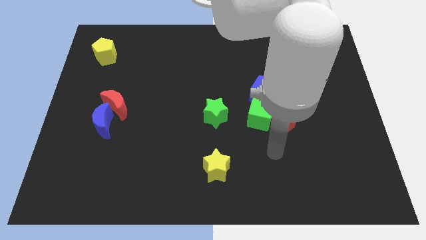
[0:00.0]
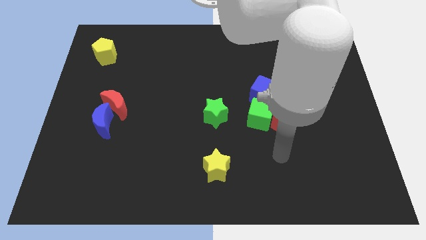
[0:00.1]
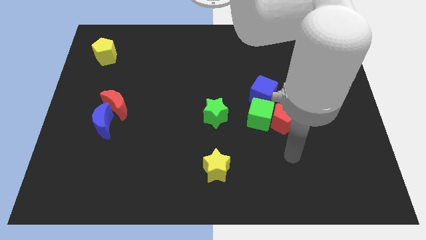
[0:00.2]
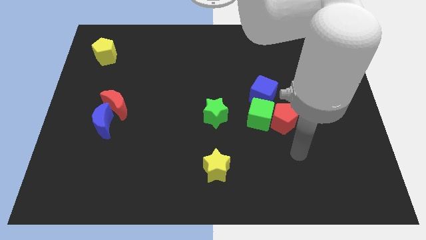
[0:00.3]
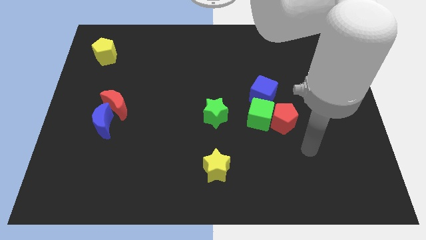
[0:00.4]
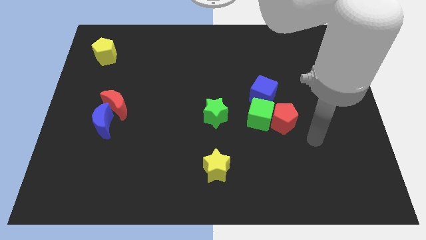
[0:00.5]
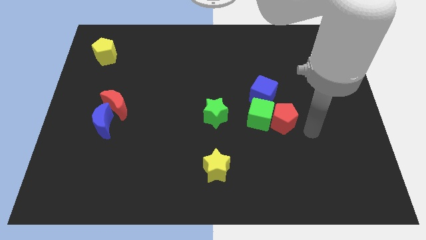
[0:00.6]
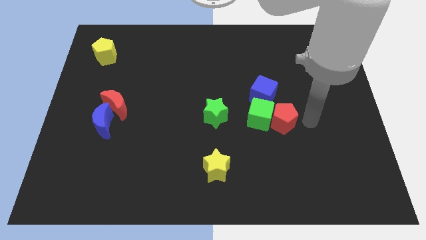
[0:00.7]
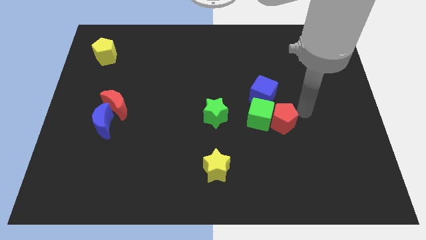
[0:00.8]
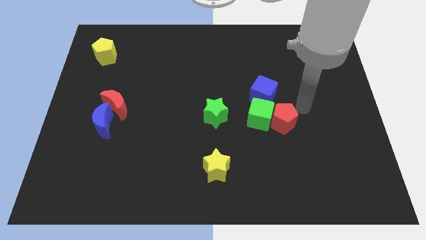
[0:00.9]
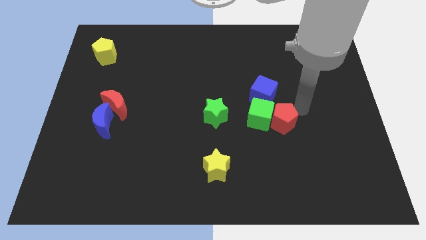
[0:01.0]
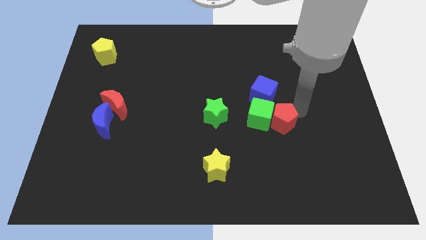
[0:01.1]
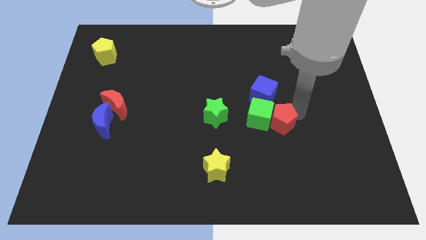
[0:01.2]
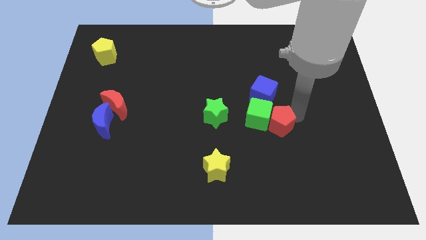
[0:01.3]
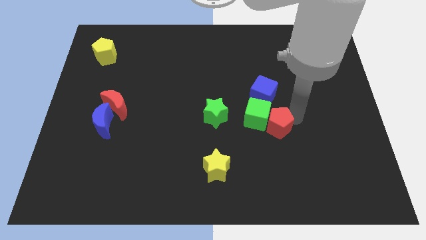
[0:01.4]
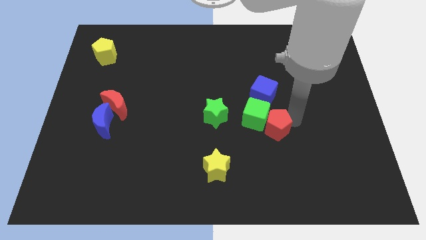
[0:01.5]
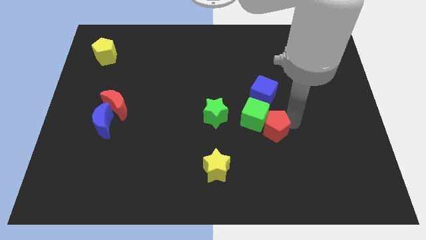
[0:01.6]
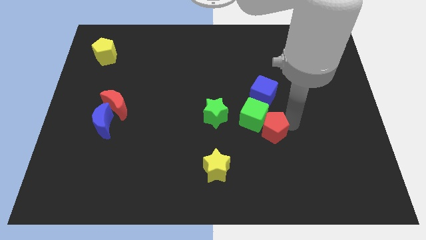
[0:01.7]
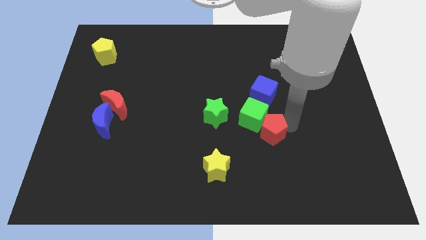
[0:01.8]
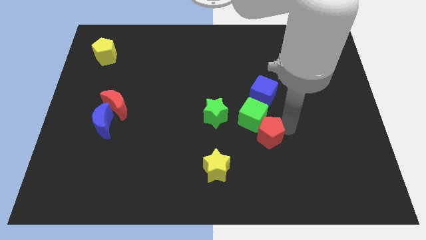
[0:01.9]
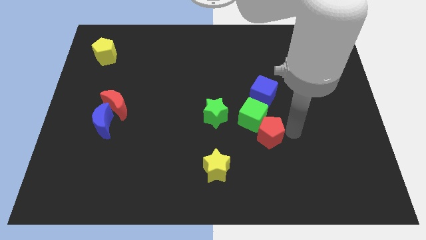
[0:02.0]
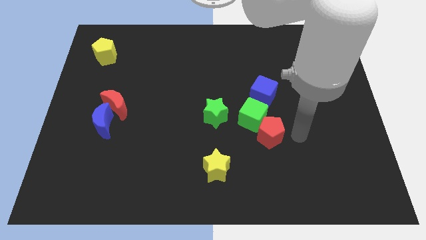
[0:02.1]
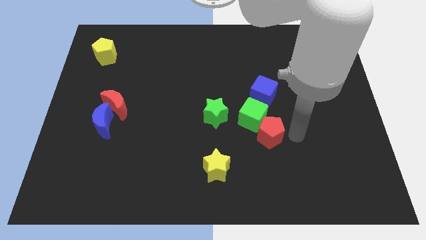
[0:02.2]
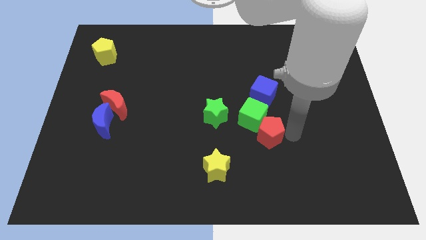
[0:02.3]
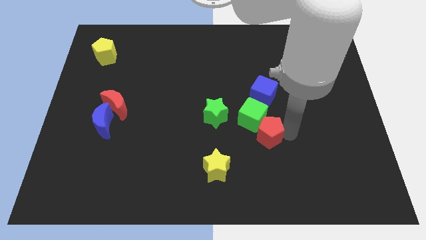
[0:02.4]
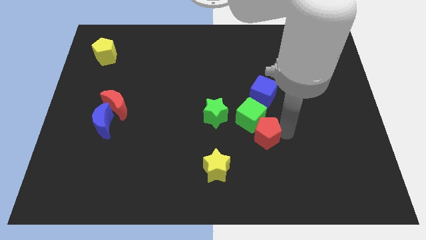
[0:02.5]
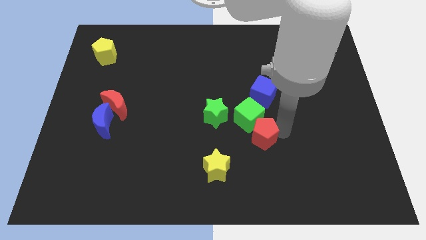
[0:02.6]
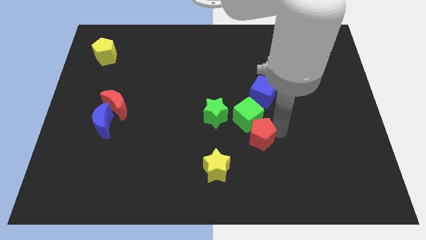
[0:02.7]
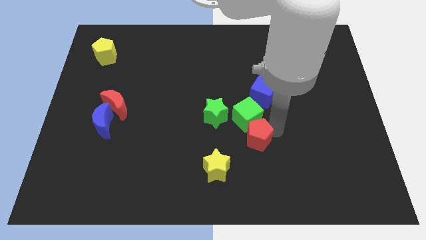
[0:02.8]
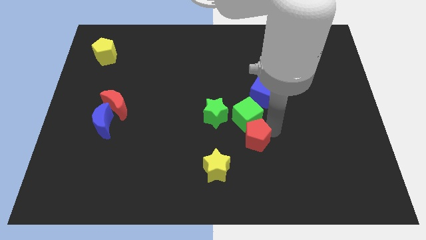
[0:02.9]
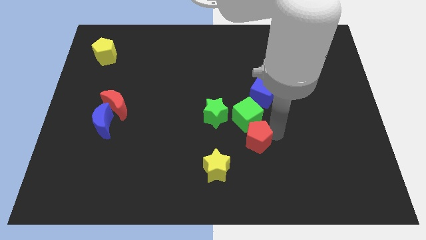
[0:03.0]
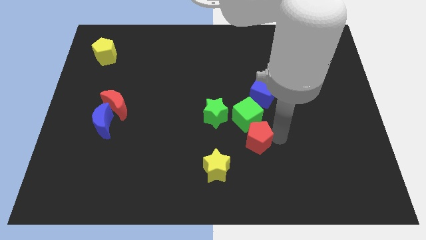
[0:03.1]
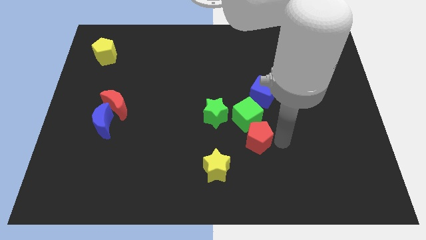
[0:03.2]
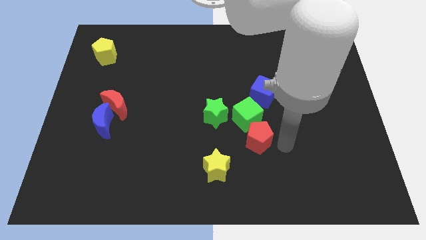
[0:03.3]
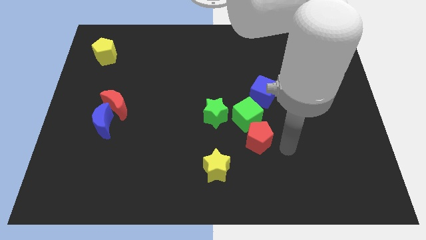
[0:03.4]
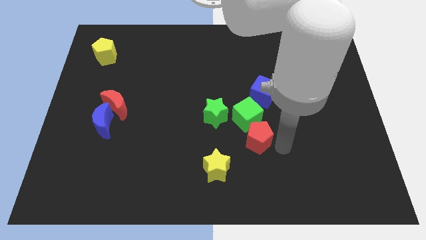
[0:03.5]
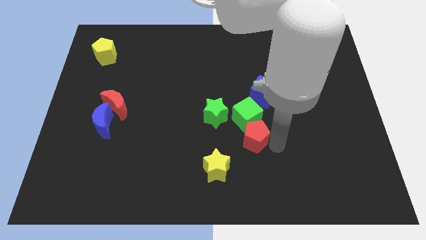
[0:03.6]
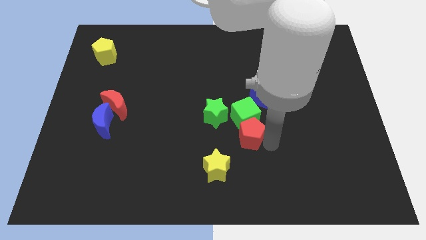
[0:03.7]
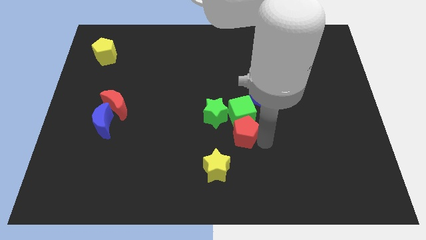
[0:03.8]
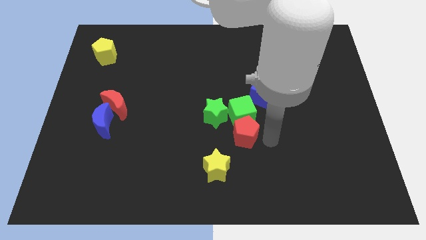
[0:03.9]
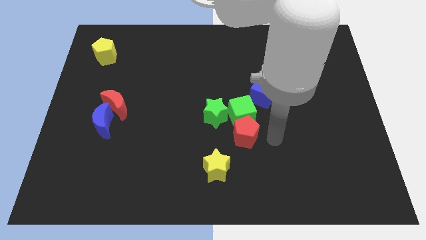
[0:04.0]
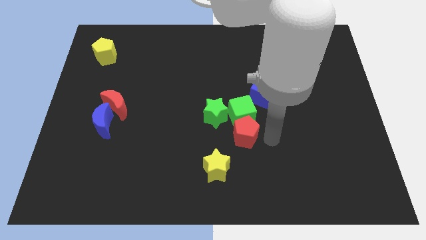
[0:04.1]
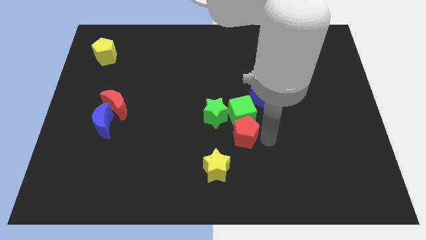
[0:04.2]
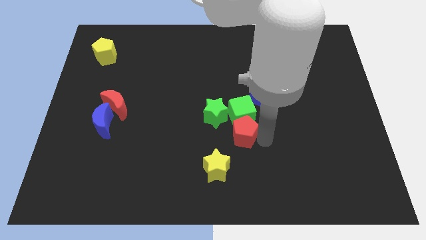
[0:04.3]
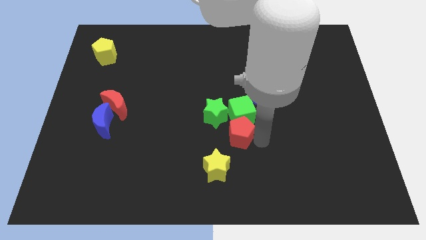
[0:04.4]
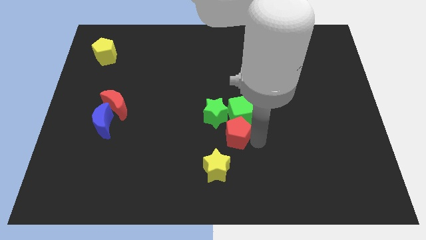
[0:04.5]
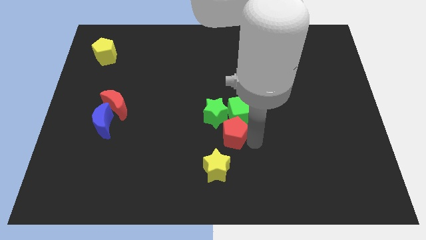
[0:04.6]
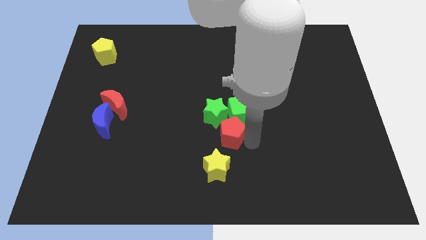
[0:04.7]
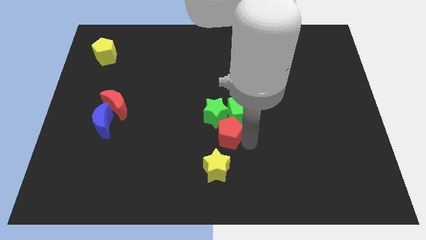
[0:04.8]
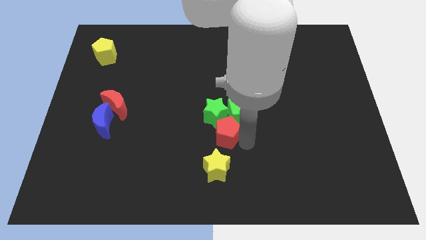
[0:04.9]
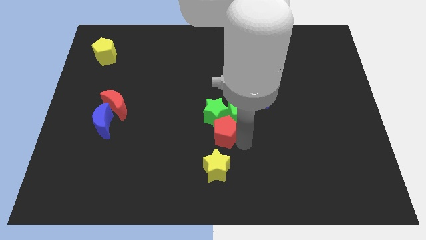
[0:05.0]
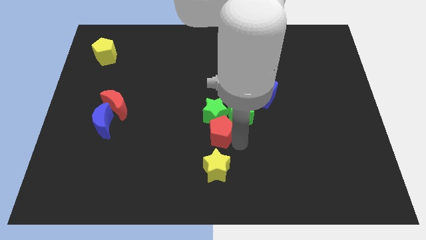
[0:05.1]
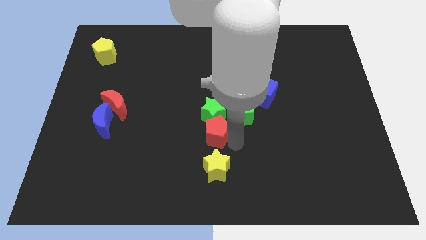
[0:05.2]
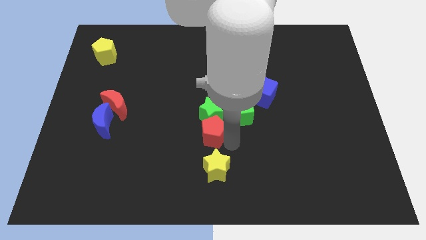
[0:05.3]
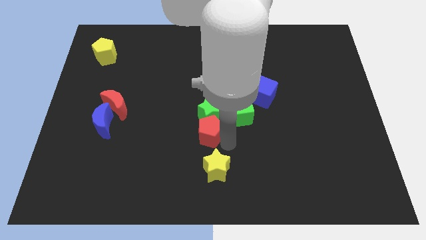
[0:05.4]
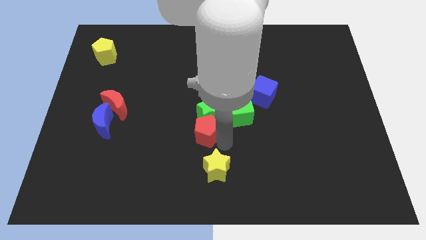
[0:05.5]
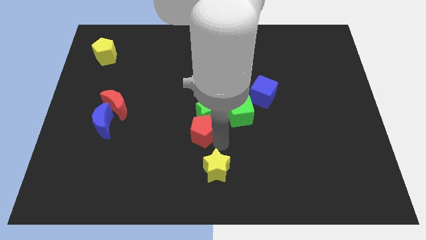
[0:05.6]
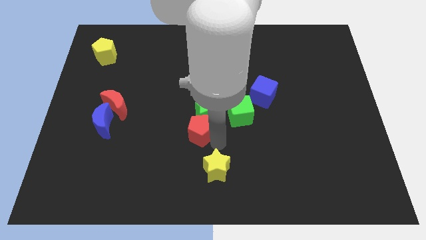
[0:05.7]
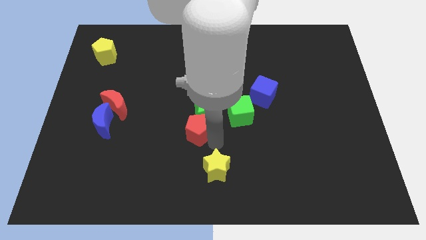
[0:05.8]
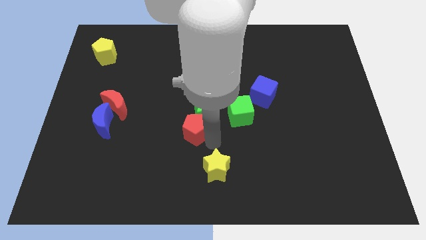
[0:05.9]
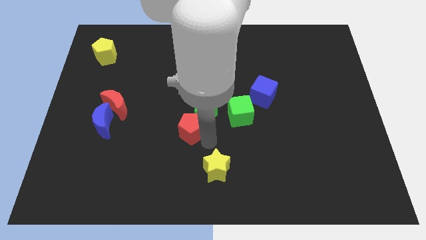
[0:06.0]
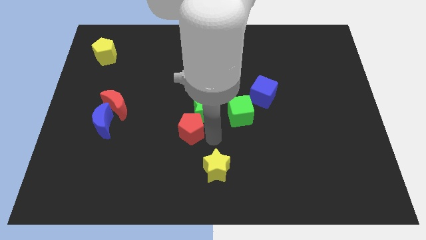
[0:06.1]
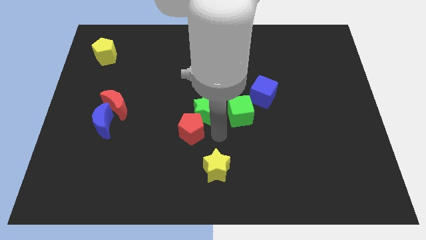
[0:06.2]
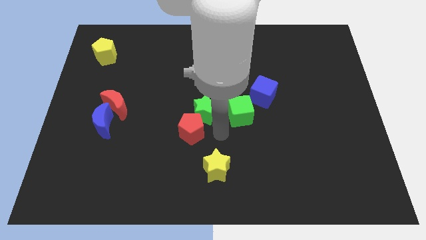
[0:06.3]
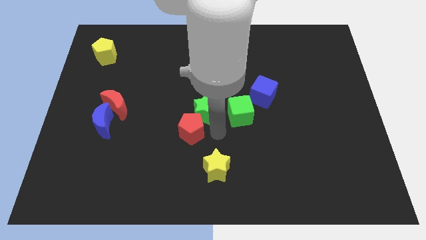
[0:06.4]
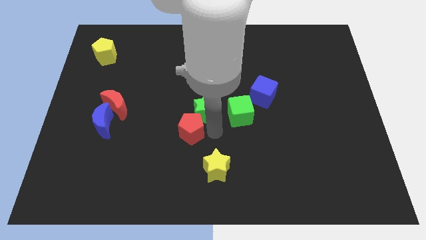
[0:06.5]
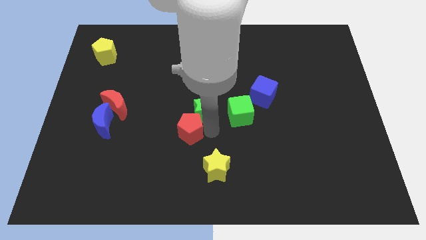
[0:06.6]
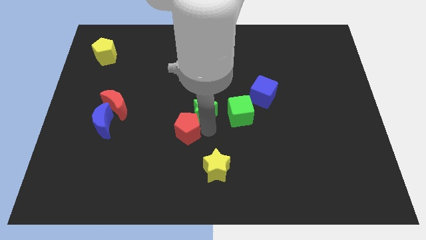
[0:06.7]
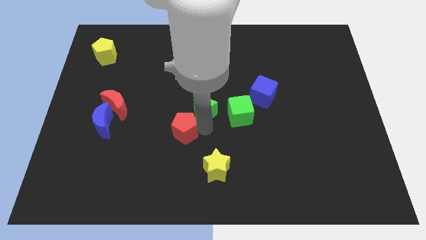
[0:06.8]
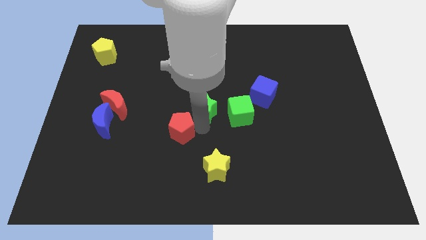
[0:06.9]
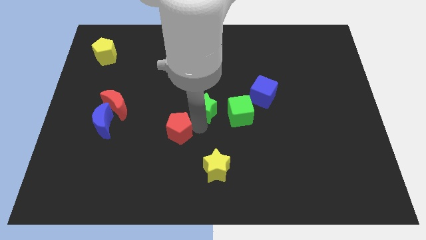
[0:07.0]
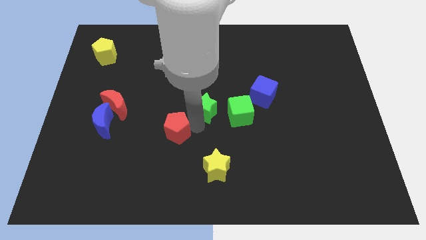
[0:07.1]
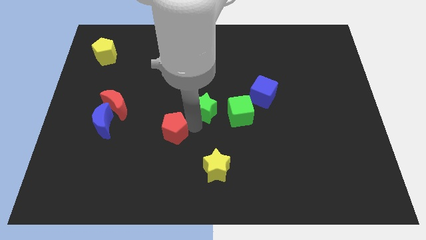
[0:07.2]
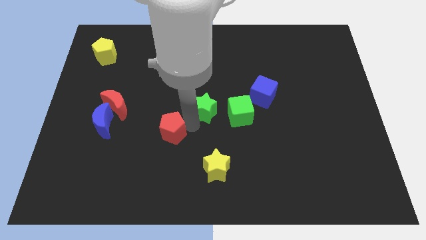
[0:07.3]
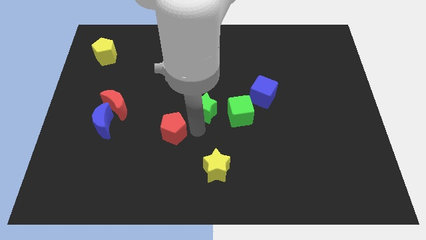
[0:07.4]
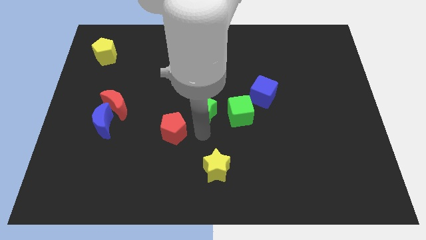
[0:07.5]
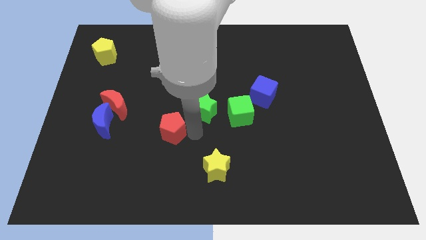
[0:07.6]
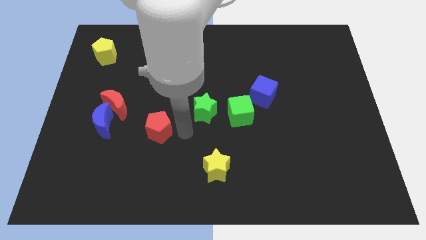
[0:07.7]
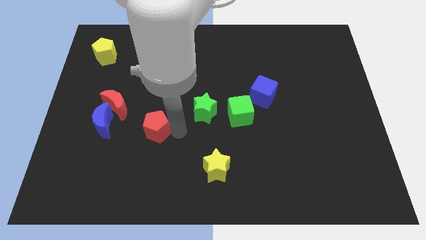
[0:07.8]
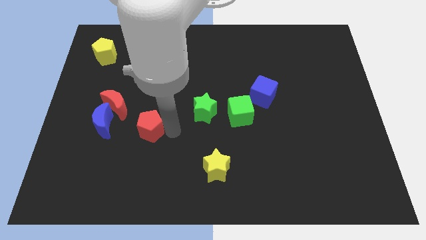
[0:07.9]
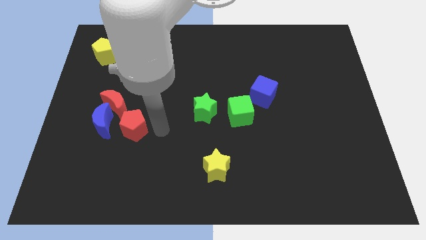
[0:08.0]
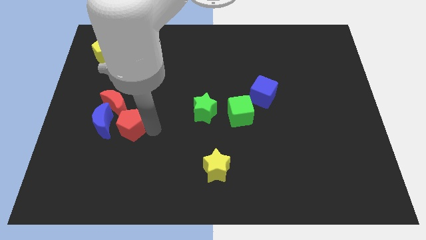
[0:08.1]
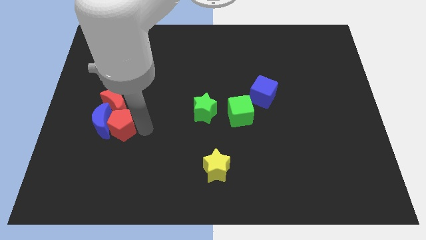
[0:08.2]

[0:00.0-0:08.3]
move the red pentagon close to the blue moon
